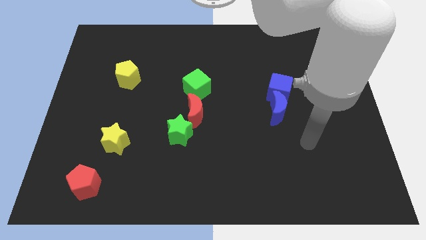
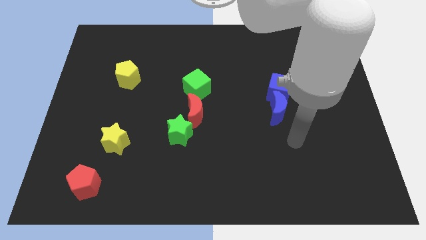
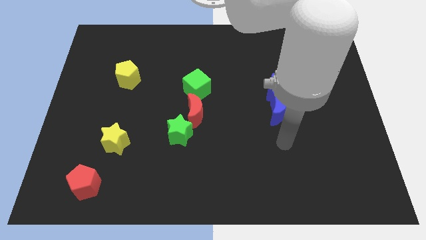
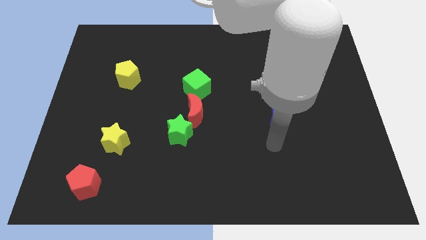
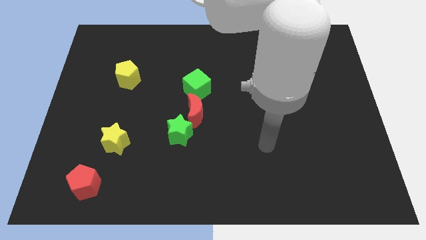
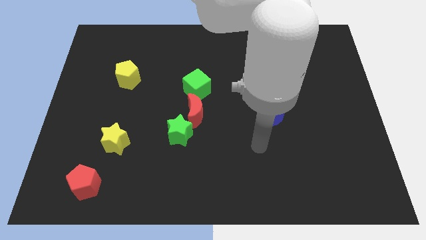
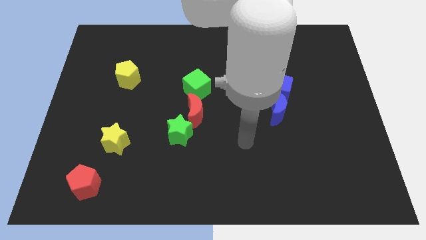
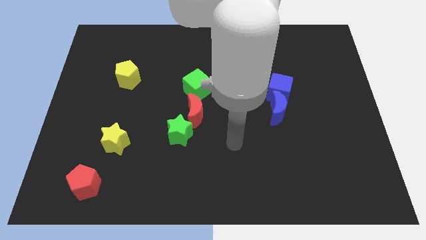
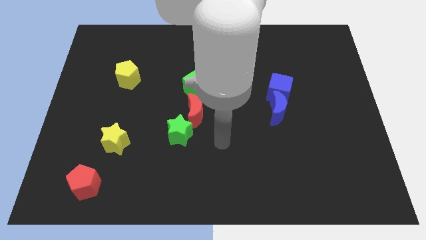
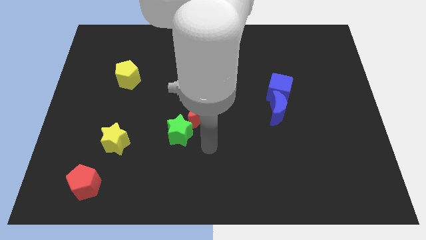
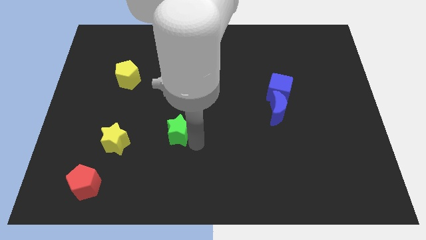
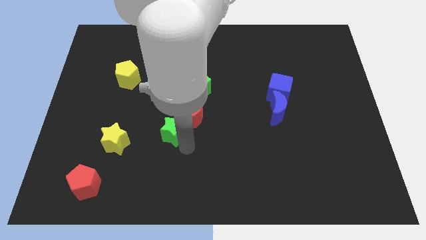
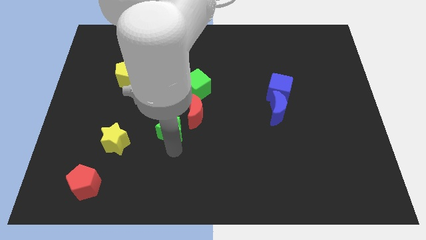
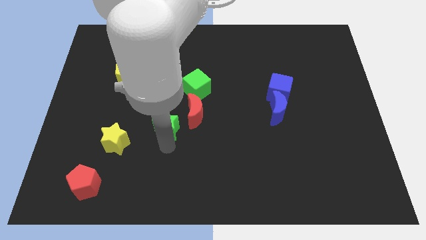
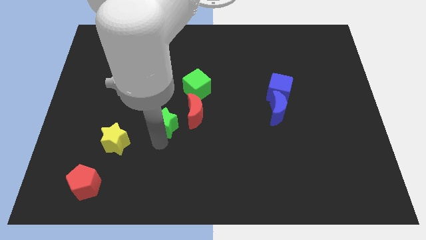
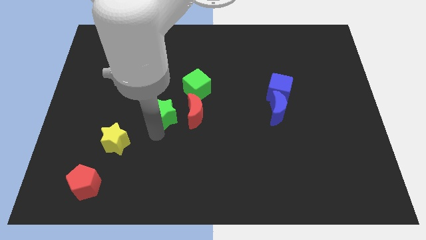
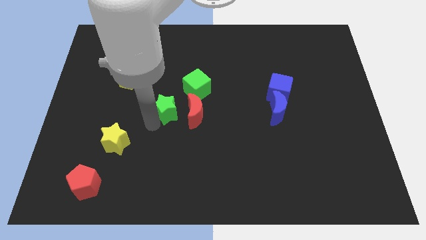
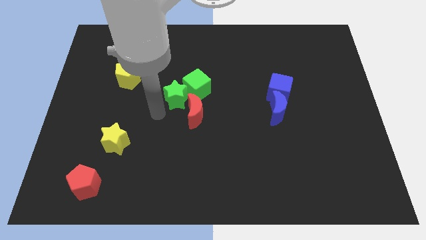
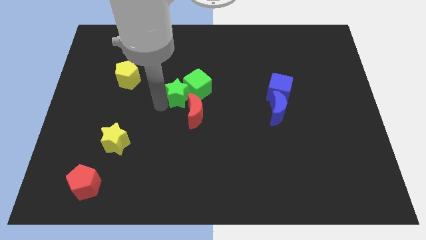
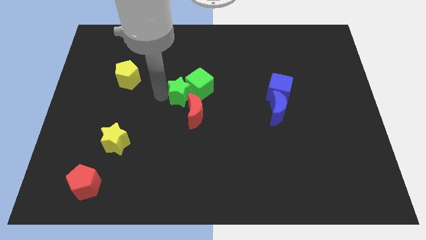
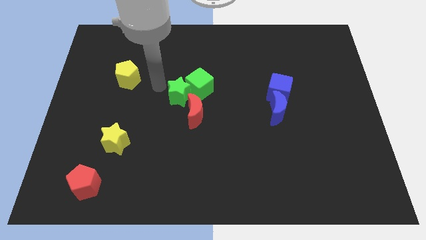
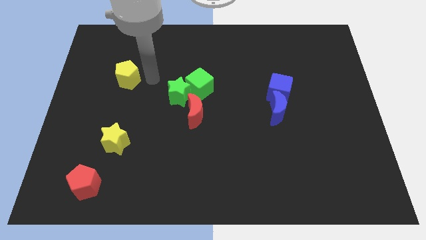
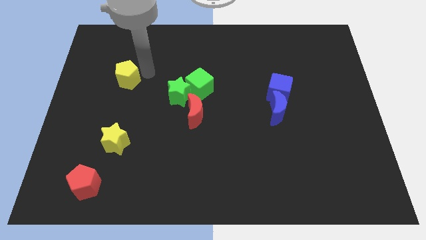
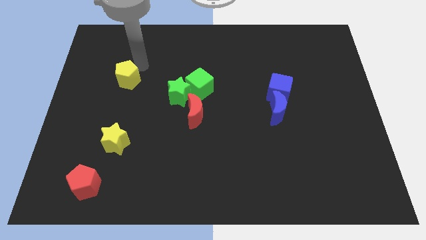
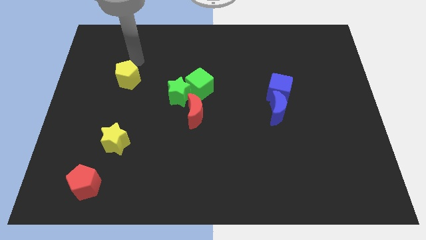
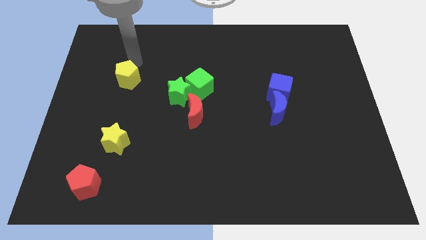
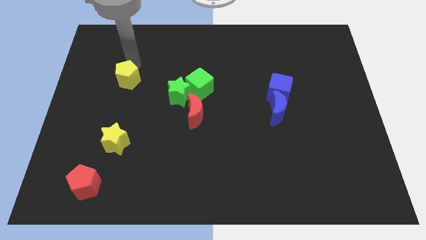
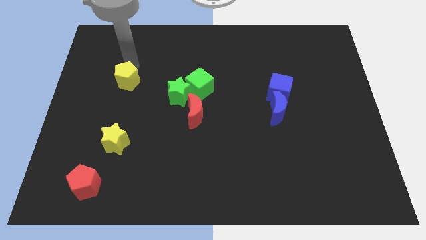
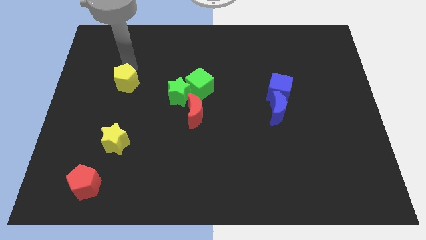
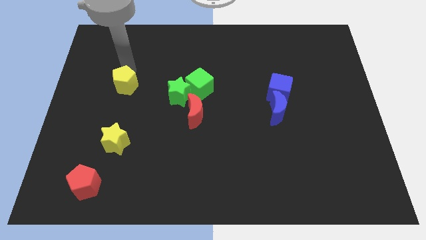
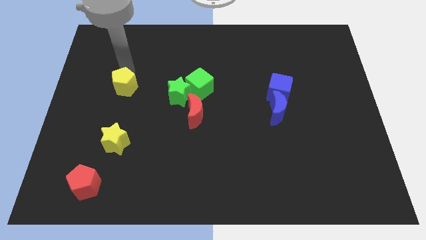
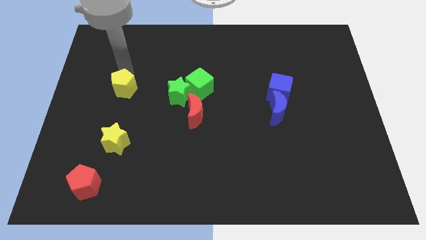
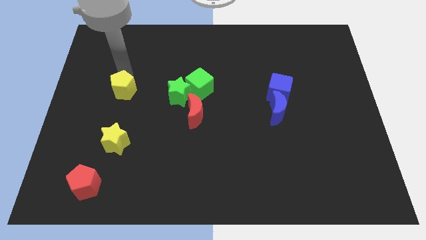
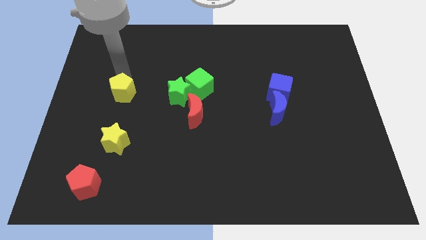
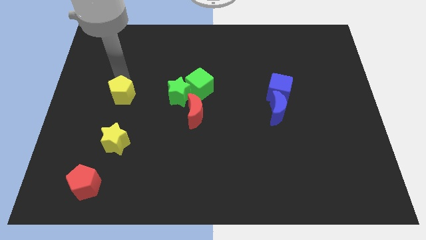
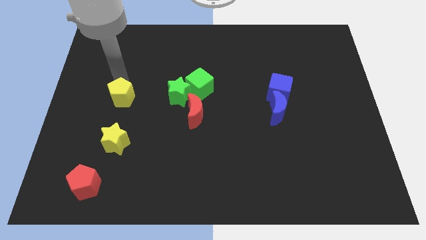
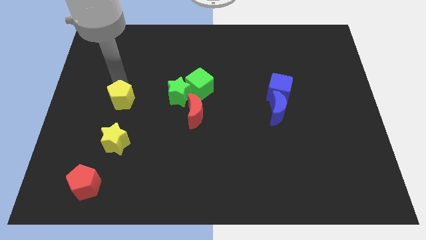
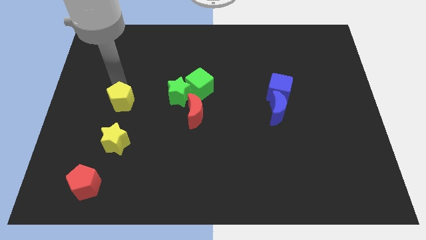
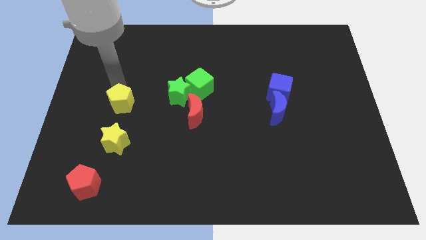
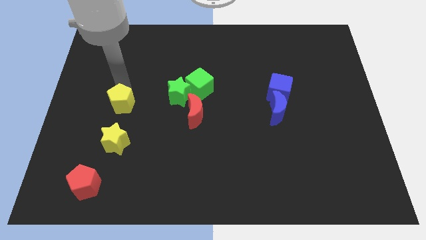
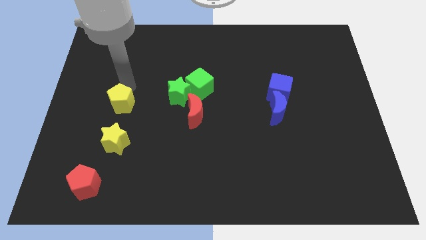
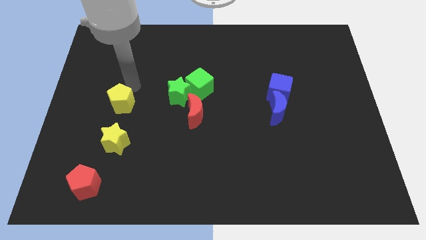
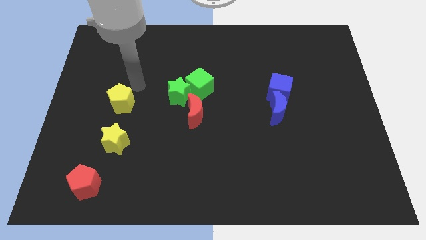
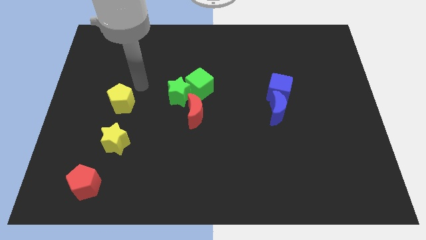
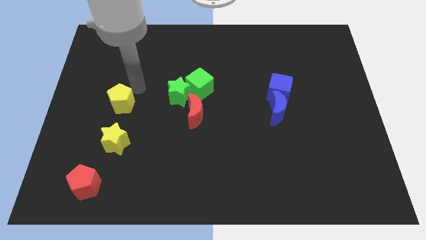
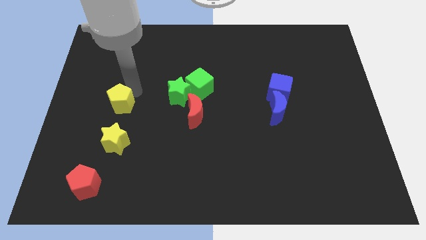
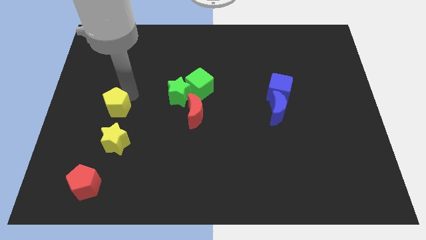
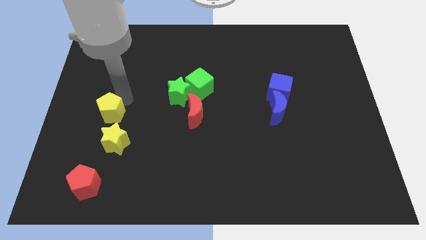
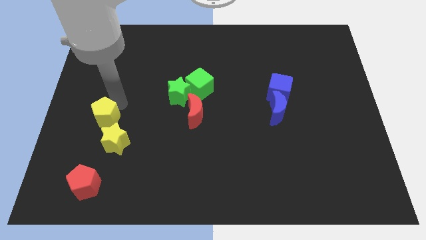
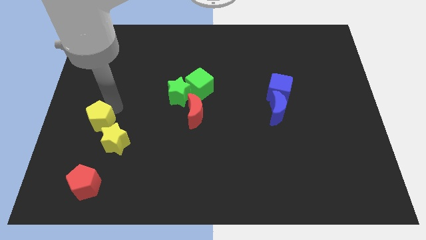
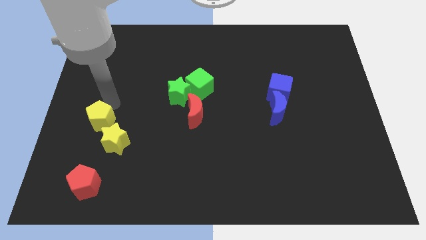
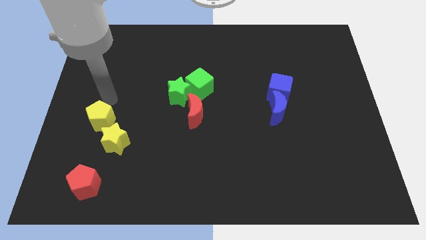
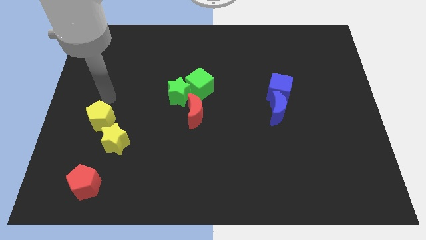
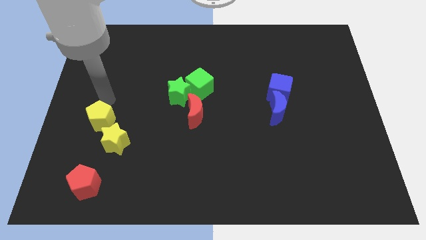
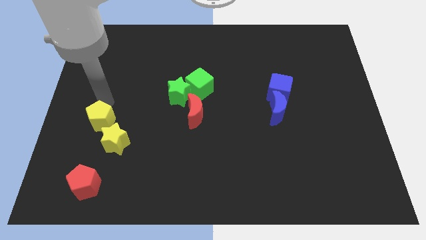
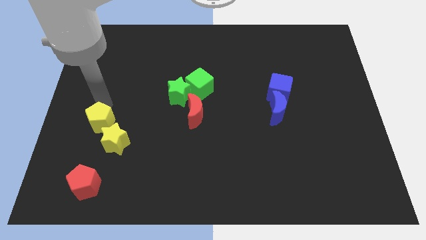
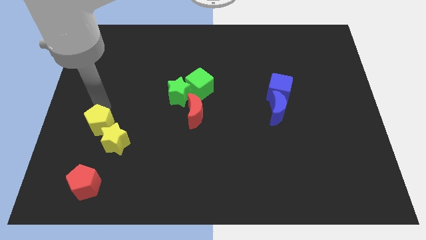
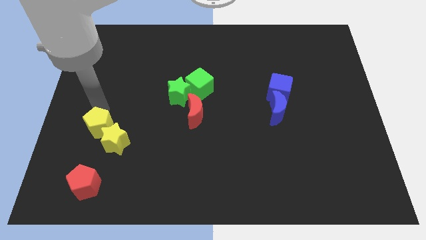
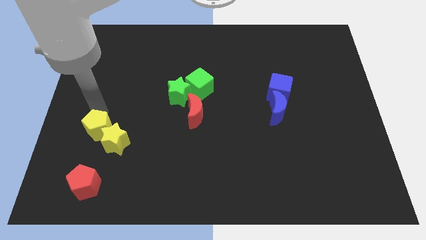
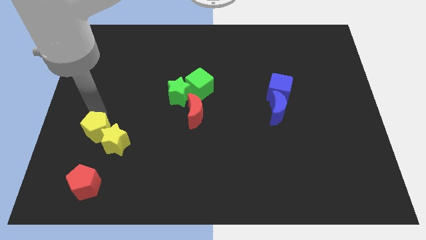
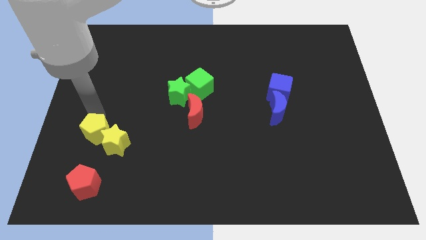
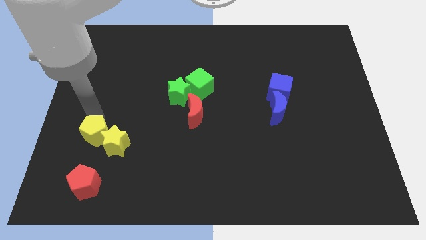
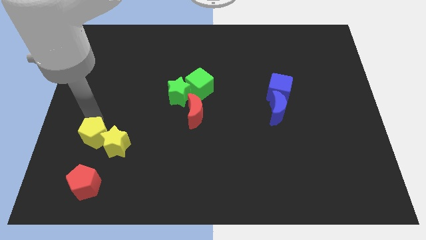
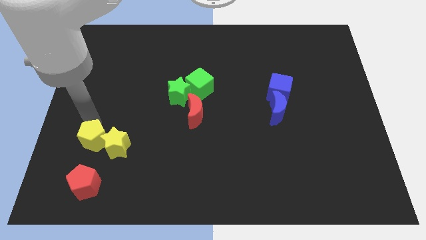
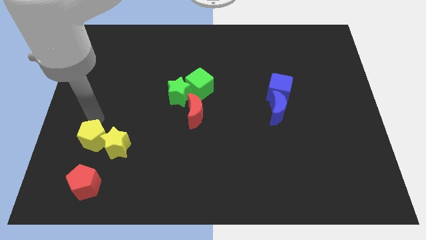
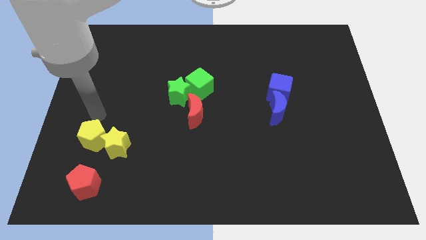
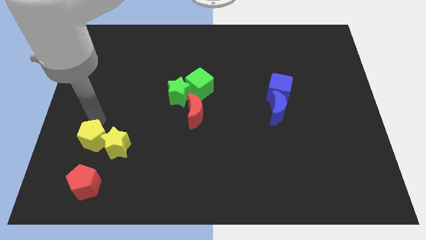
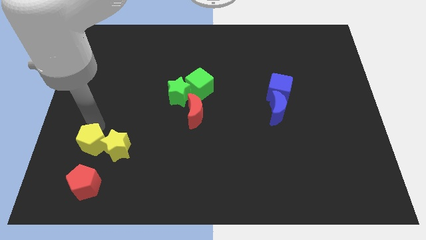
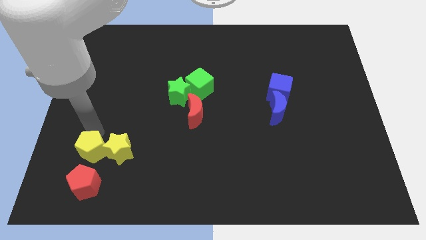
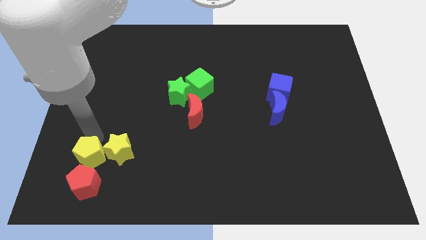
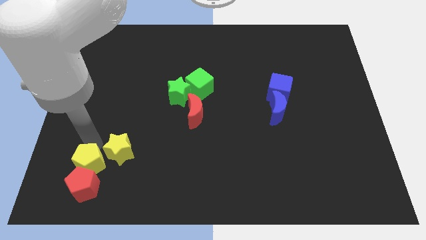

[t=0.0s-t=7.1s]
push the yellow pentagon towards the red pentagon
